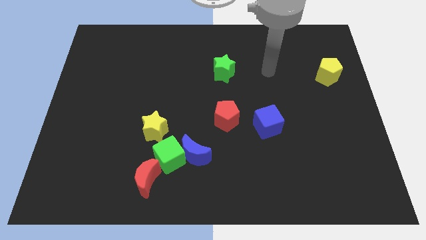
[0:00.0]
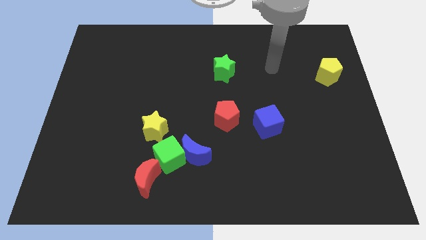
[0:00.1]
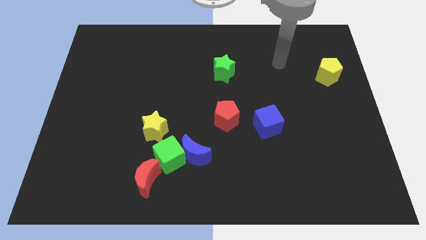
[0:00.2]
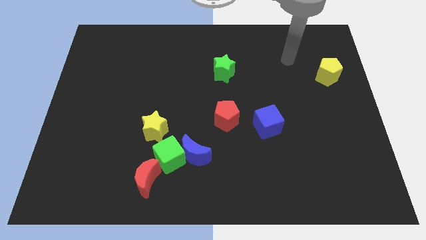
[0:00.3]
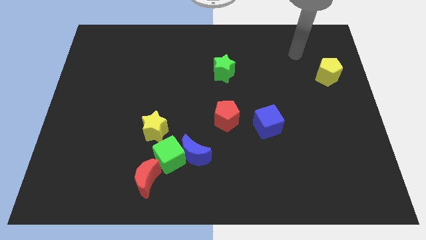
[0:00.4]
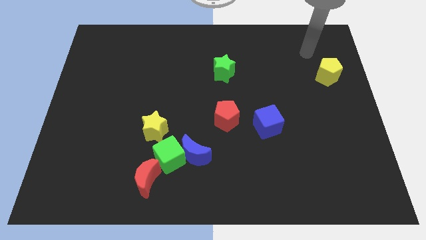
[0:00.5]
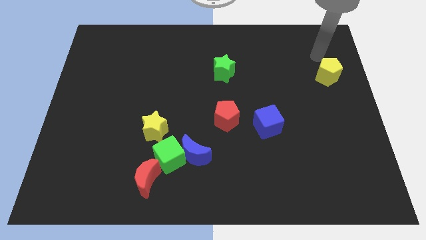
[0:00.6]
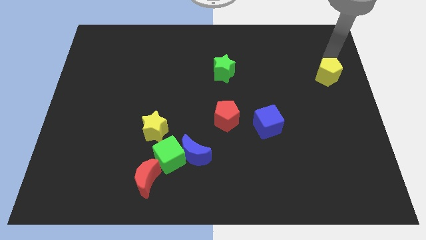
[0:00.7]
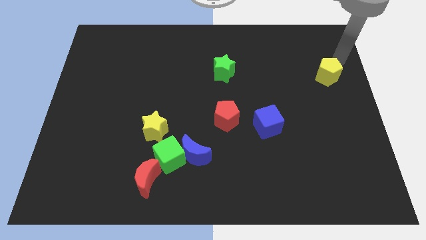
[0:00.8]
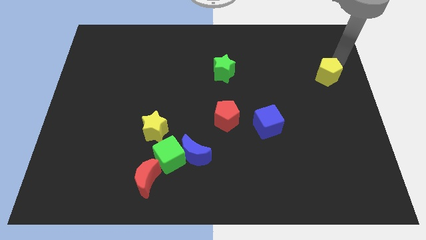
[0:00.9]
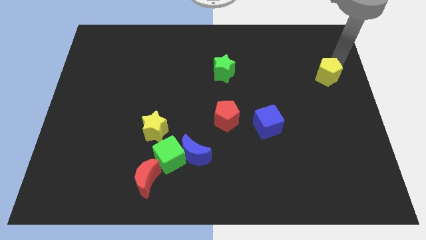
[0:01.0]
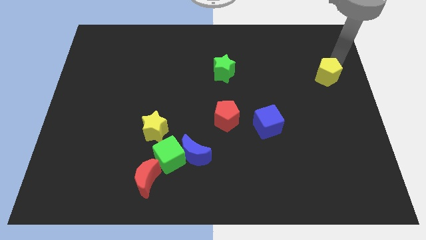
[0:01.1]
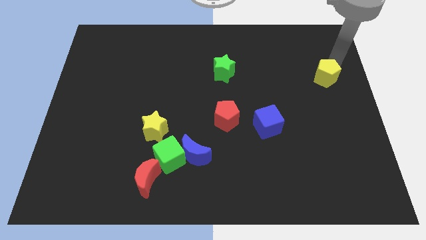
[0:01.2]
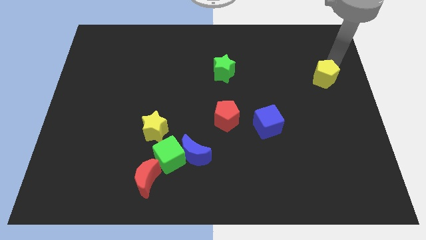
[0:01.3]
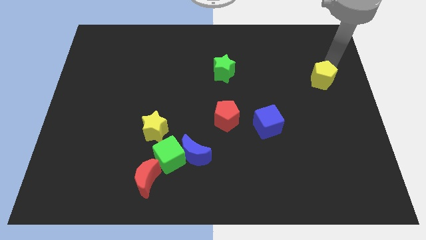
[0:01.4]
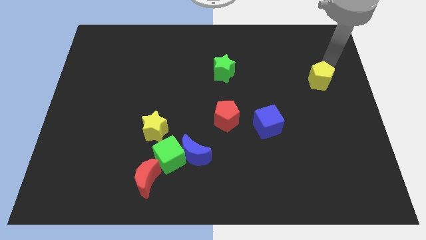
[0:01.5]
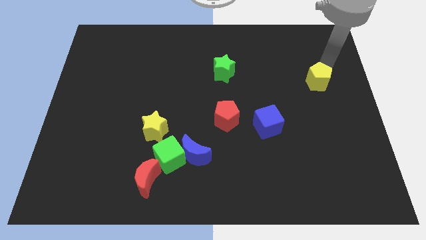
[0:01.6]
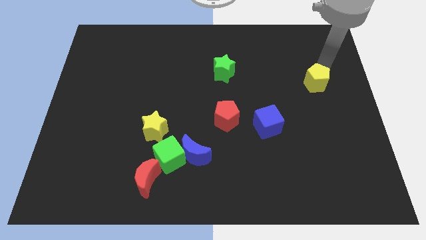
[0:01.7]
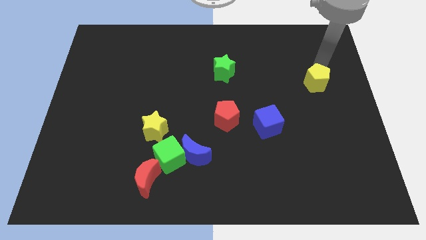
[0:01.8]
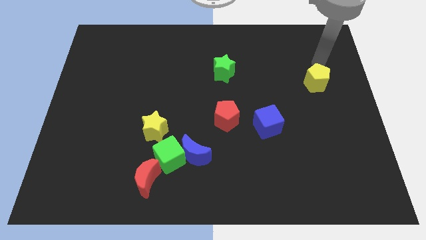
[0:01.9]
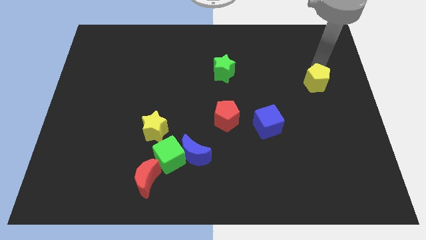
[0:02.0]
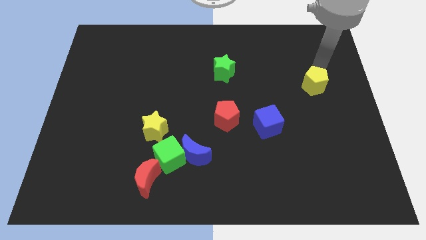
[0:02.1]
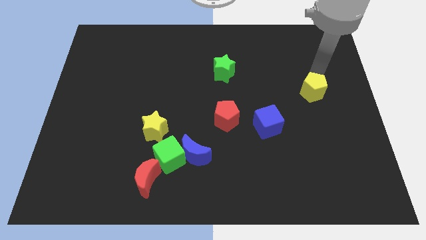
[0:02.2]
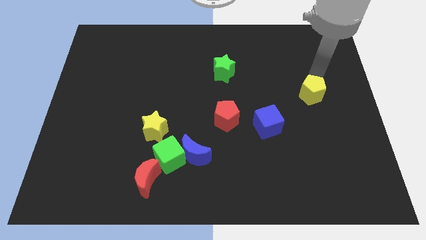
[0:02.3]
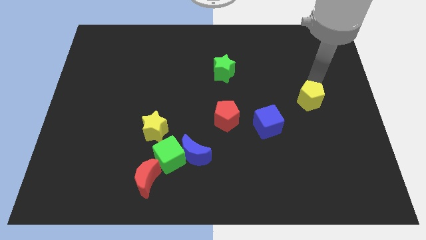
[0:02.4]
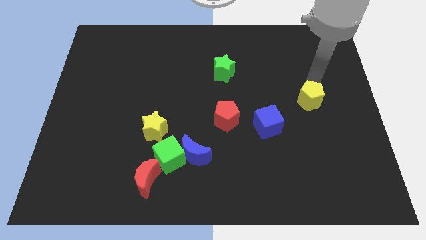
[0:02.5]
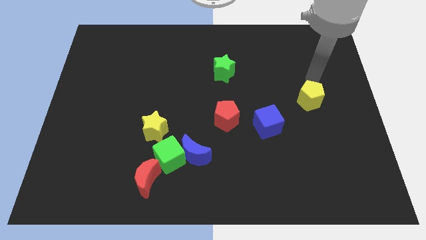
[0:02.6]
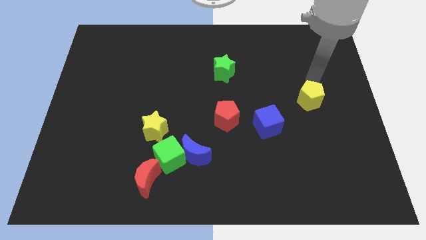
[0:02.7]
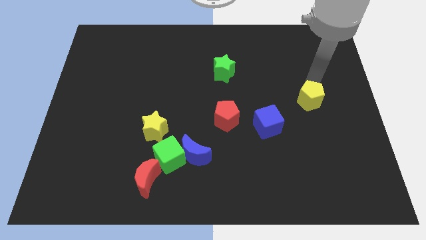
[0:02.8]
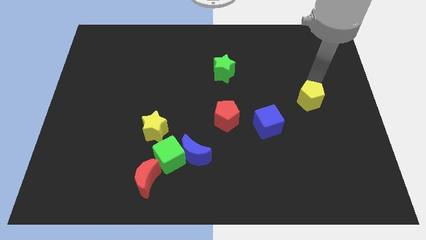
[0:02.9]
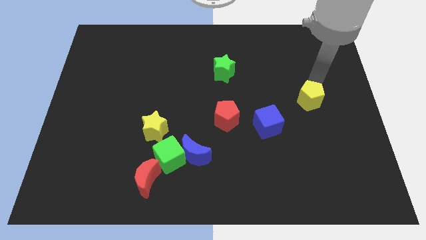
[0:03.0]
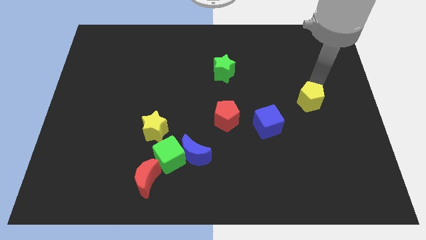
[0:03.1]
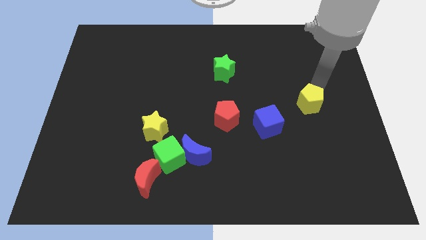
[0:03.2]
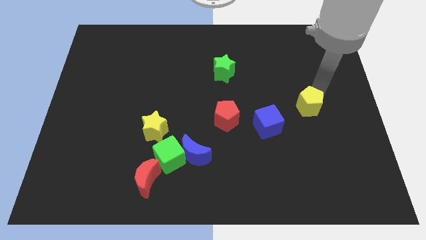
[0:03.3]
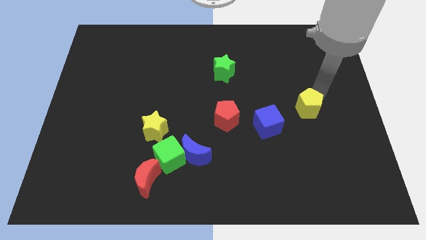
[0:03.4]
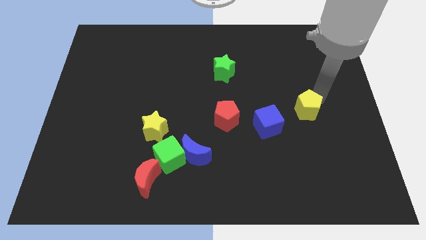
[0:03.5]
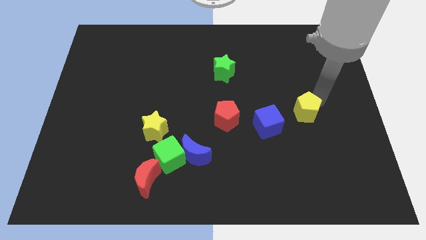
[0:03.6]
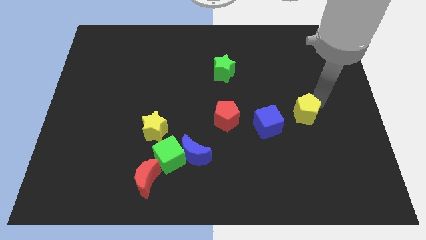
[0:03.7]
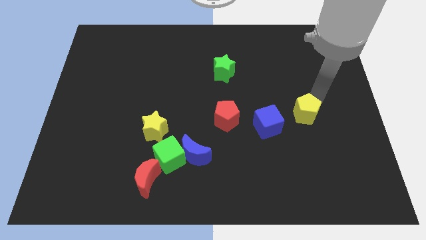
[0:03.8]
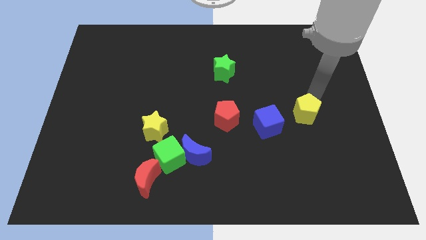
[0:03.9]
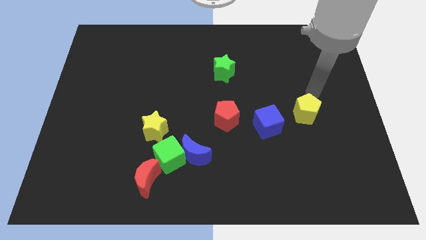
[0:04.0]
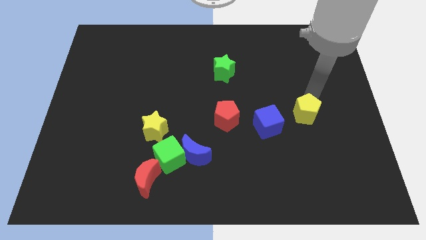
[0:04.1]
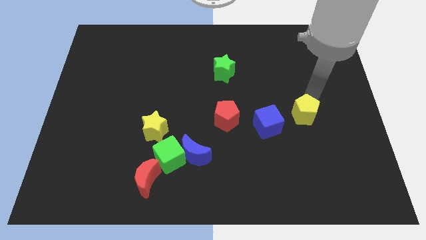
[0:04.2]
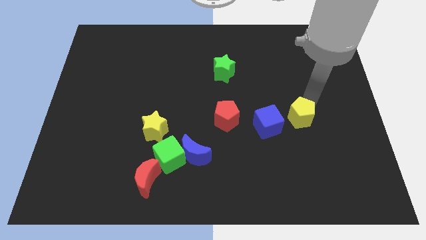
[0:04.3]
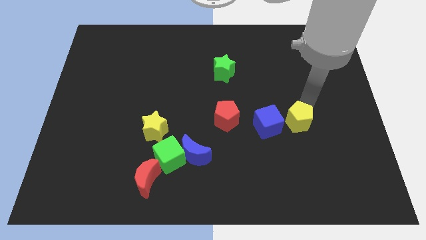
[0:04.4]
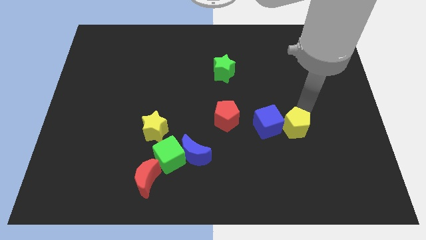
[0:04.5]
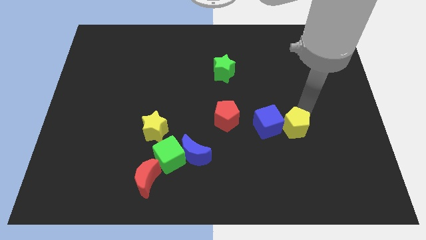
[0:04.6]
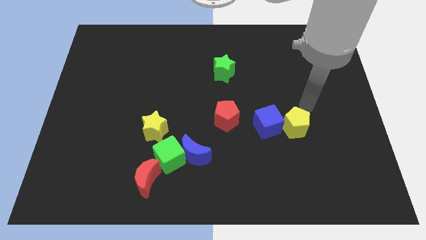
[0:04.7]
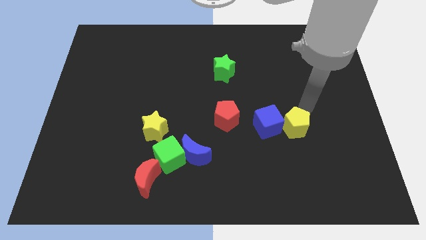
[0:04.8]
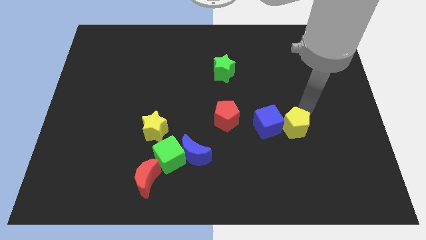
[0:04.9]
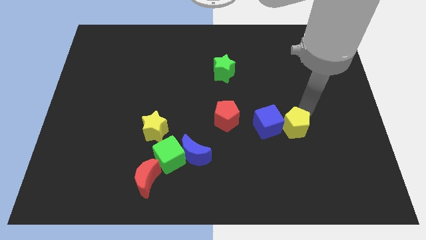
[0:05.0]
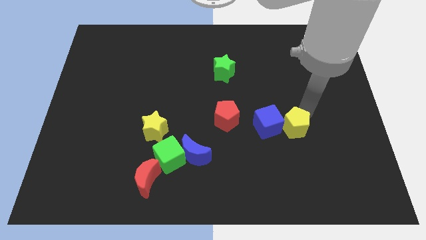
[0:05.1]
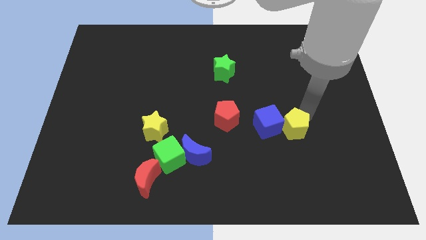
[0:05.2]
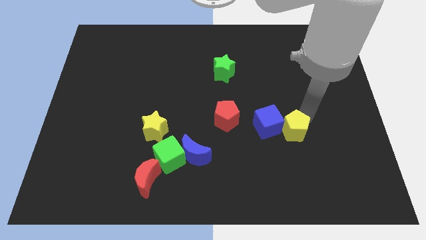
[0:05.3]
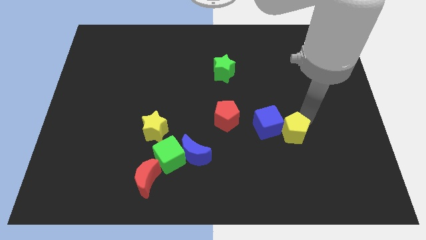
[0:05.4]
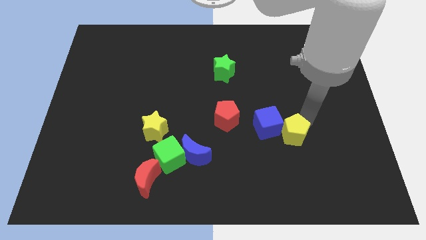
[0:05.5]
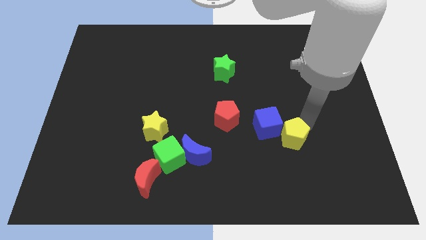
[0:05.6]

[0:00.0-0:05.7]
move the yellow pentagon down and to the left

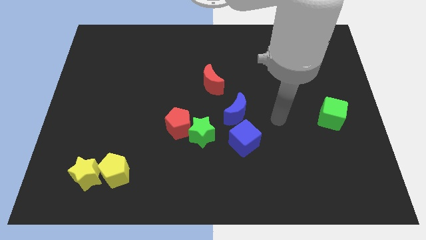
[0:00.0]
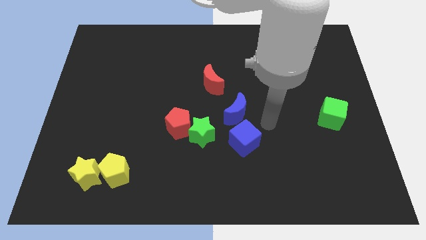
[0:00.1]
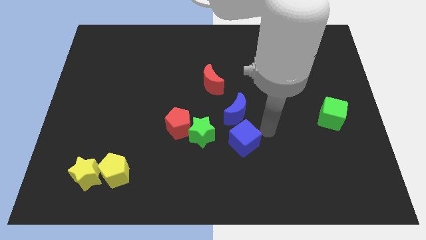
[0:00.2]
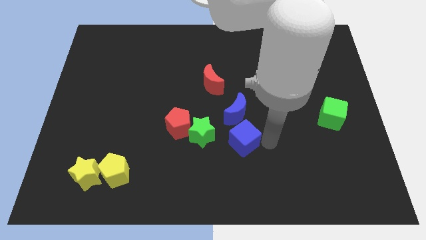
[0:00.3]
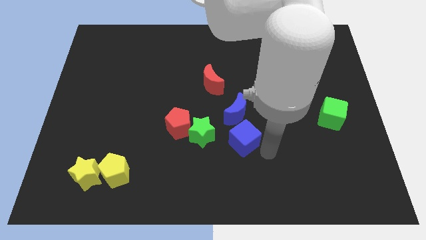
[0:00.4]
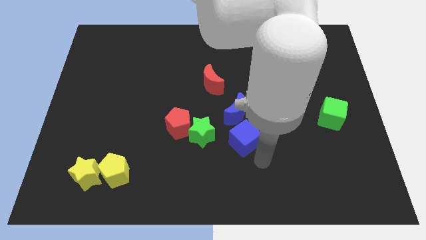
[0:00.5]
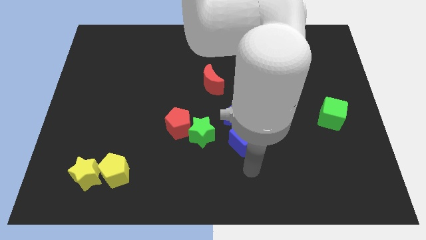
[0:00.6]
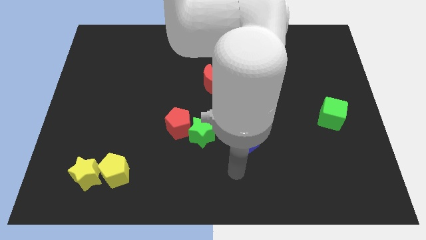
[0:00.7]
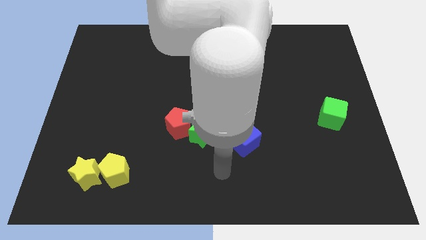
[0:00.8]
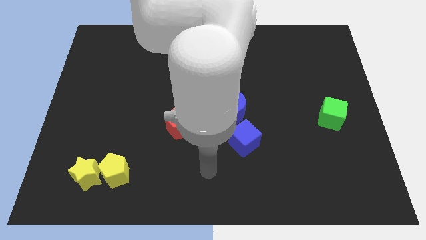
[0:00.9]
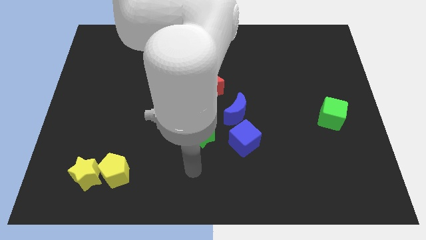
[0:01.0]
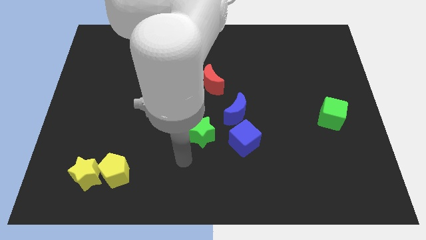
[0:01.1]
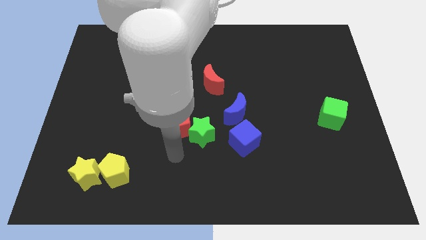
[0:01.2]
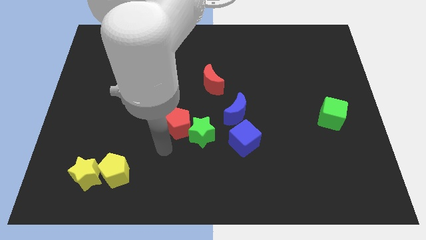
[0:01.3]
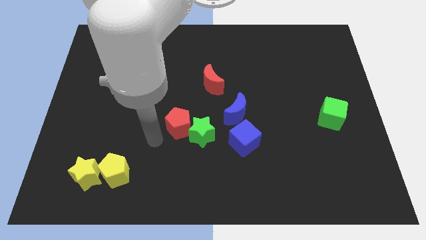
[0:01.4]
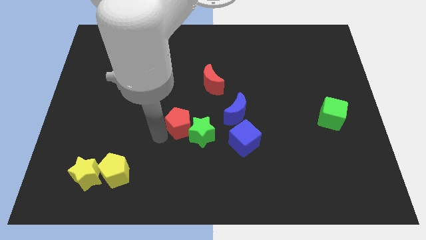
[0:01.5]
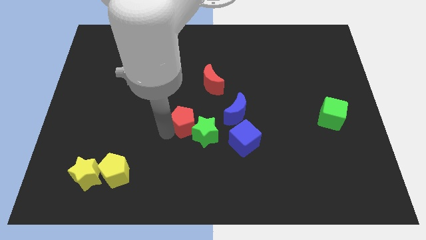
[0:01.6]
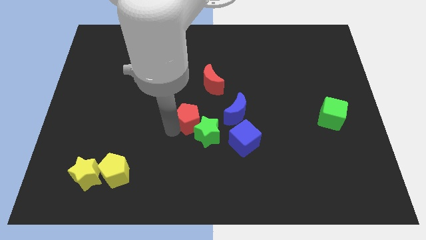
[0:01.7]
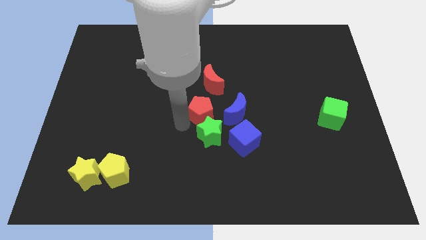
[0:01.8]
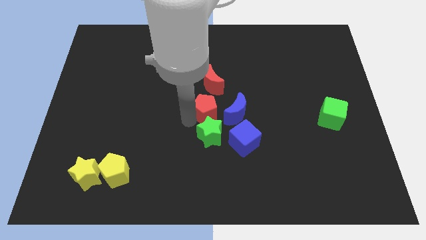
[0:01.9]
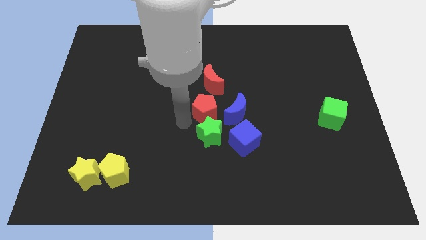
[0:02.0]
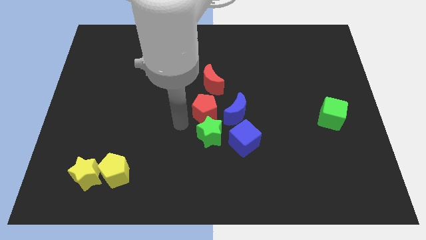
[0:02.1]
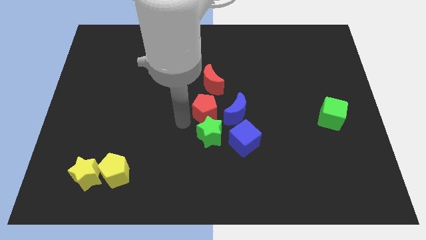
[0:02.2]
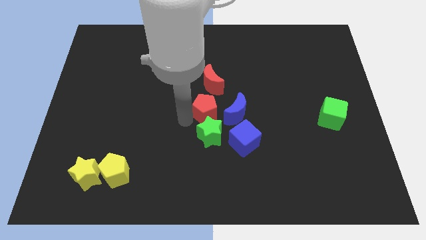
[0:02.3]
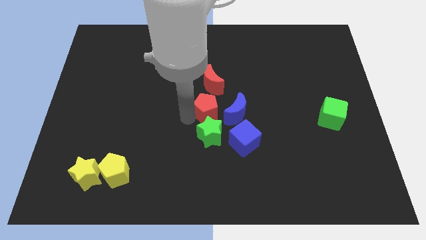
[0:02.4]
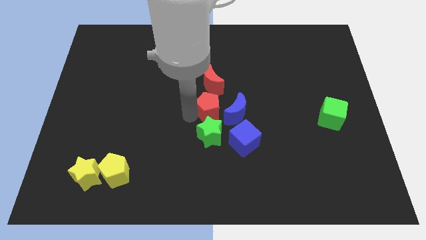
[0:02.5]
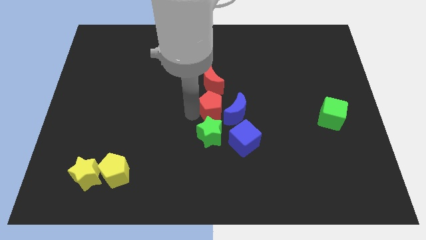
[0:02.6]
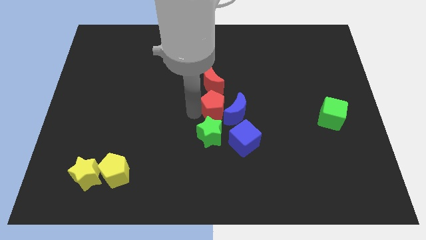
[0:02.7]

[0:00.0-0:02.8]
push the red pentagon to the right slightly
